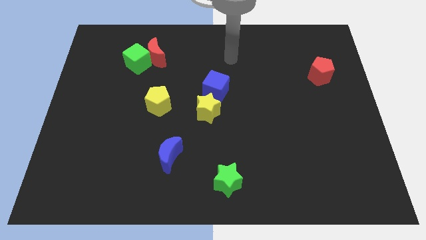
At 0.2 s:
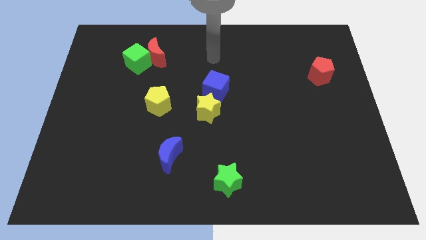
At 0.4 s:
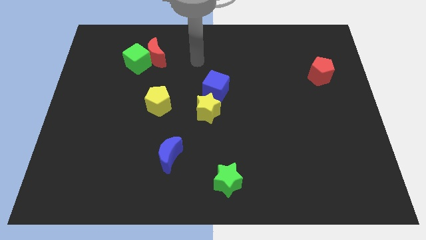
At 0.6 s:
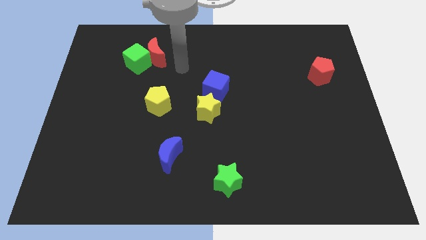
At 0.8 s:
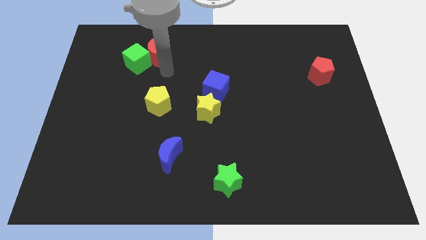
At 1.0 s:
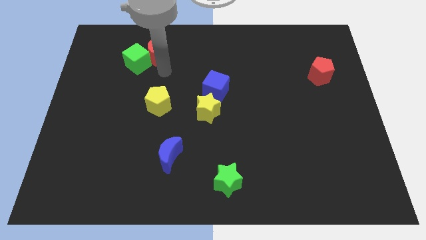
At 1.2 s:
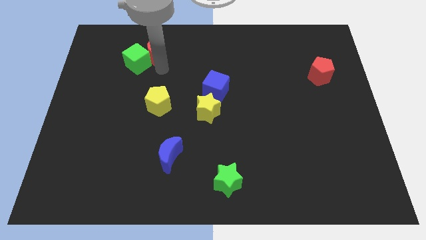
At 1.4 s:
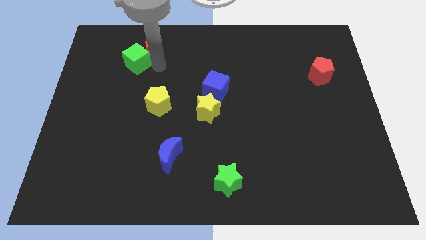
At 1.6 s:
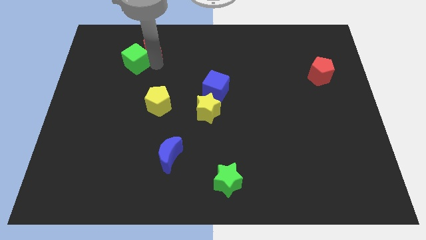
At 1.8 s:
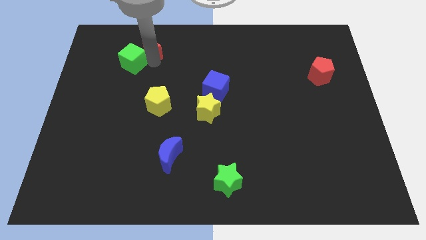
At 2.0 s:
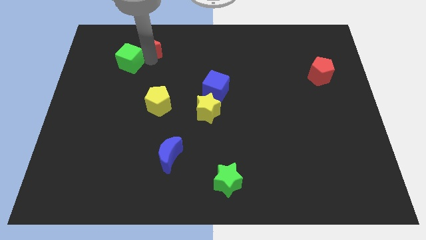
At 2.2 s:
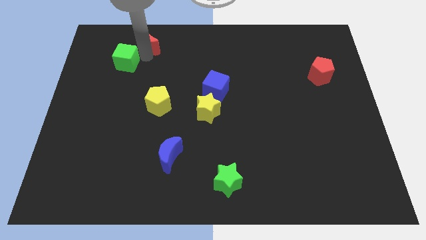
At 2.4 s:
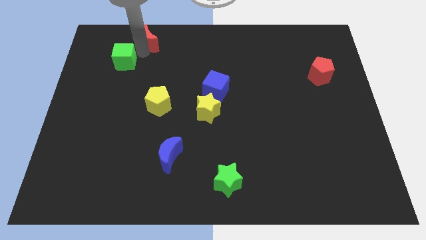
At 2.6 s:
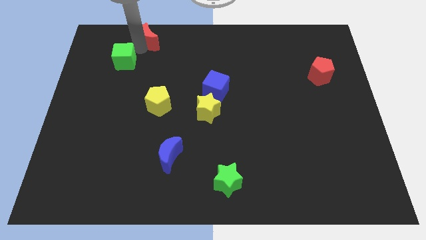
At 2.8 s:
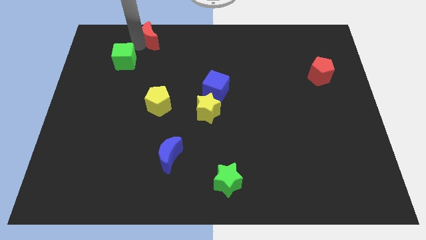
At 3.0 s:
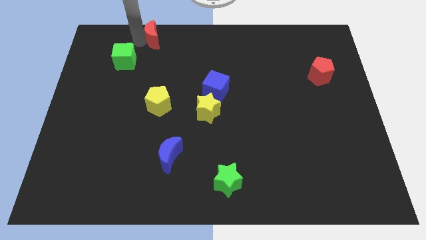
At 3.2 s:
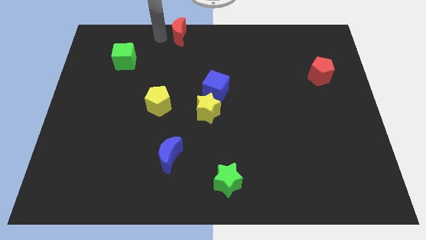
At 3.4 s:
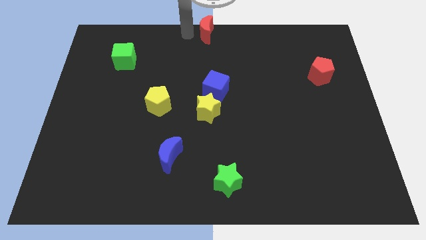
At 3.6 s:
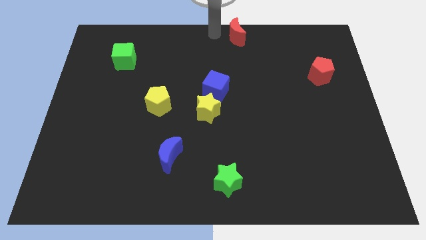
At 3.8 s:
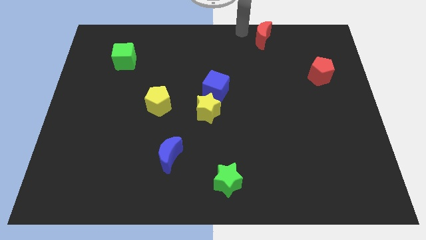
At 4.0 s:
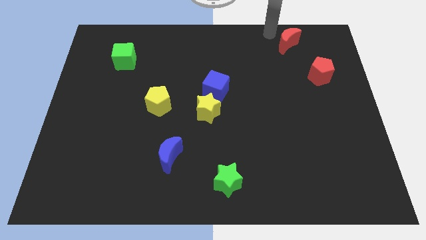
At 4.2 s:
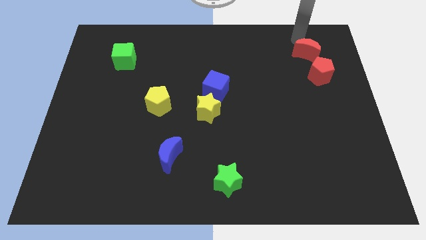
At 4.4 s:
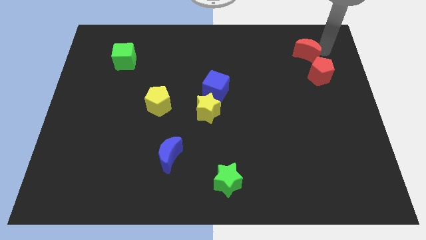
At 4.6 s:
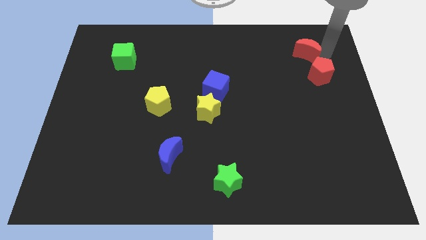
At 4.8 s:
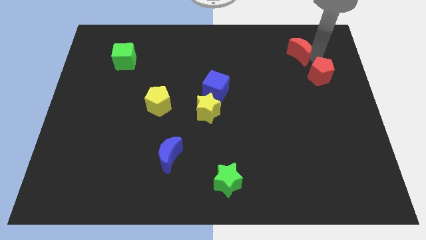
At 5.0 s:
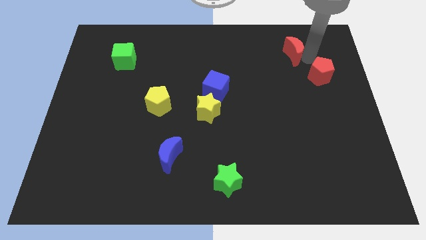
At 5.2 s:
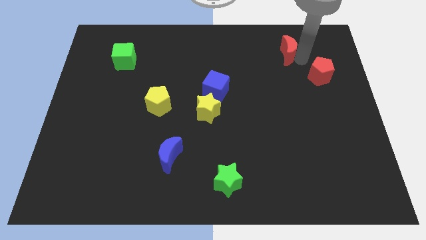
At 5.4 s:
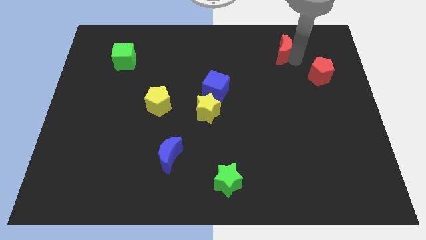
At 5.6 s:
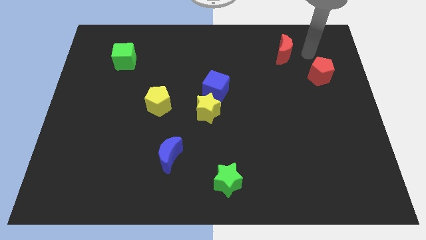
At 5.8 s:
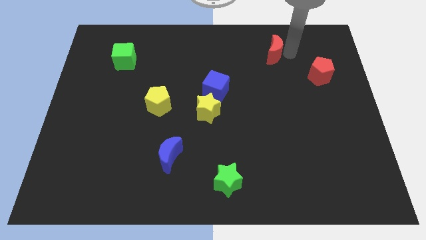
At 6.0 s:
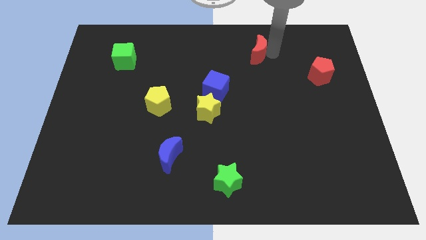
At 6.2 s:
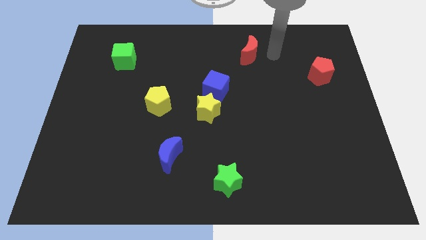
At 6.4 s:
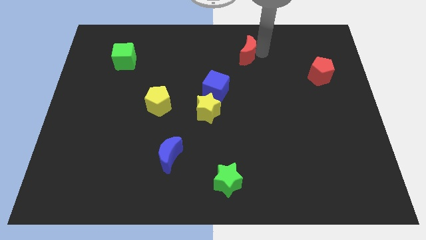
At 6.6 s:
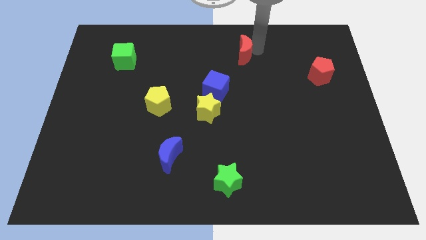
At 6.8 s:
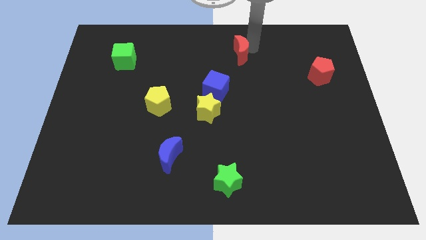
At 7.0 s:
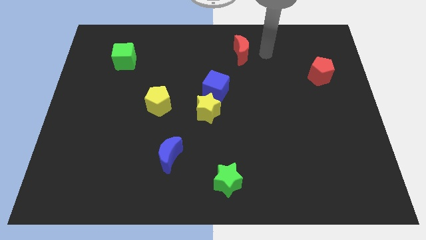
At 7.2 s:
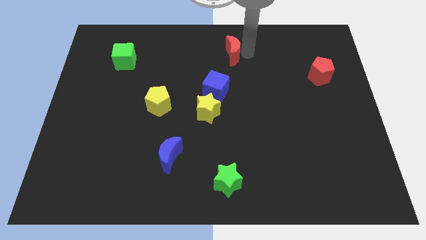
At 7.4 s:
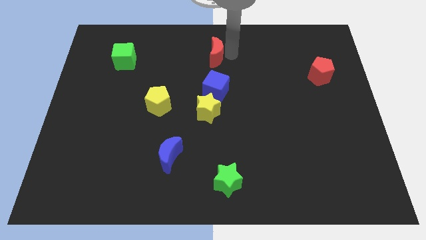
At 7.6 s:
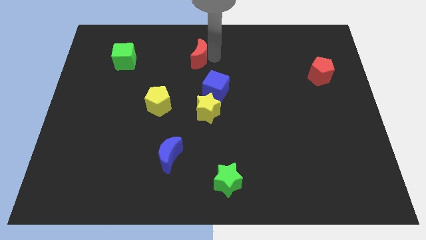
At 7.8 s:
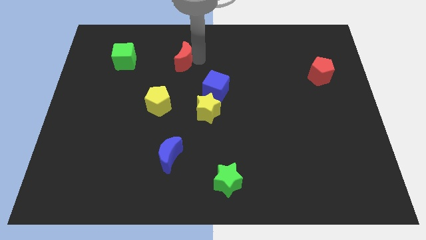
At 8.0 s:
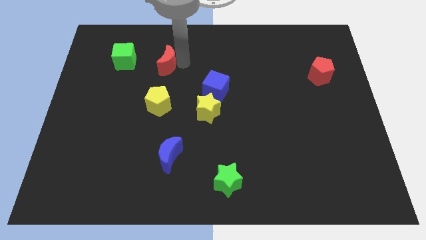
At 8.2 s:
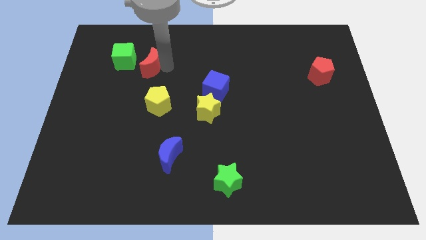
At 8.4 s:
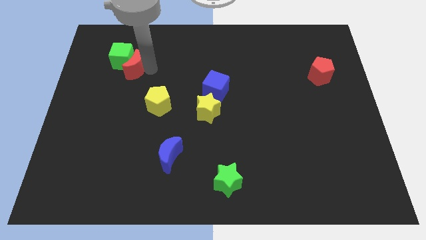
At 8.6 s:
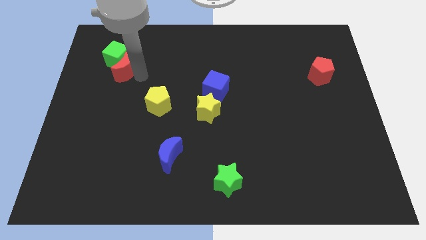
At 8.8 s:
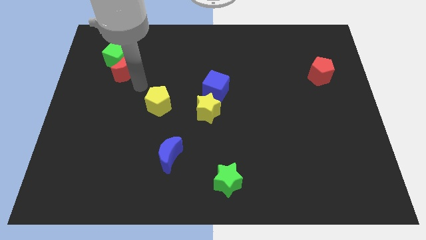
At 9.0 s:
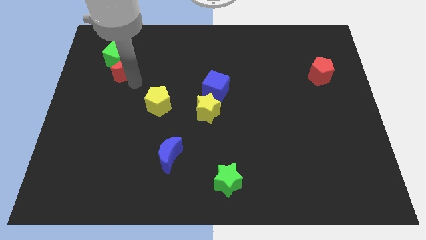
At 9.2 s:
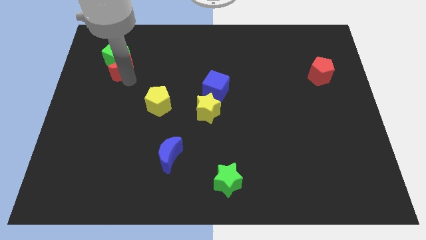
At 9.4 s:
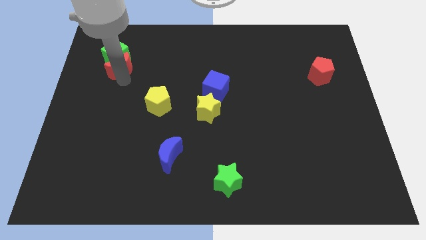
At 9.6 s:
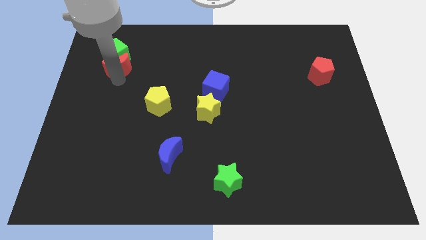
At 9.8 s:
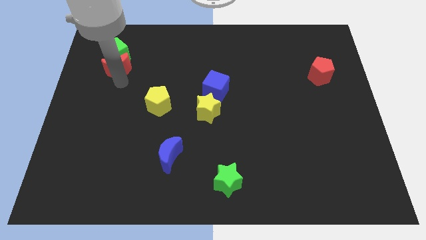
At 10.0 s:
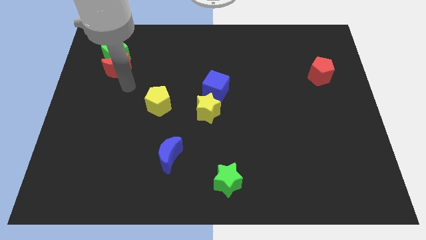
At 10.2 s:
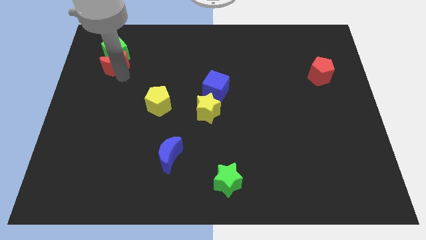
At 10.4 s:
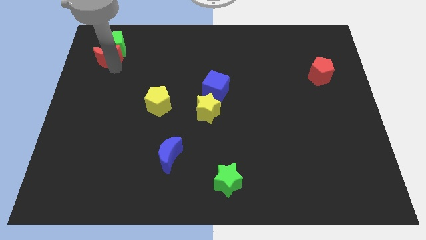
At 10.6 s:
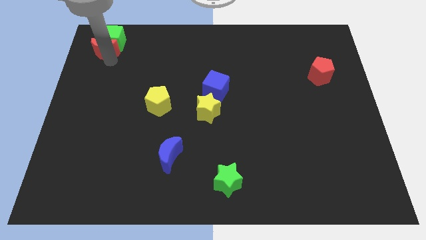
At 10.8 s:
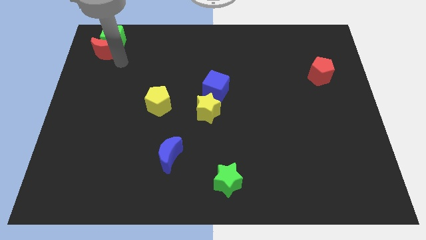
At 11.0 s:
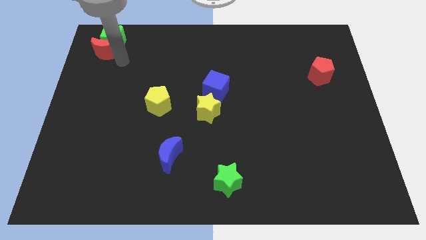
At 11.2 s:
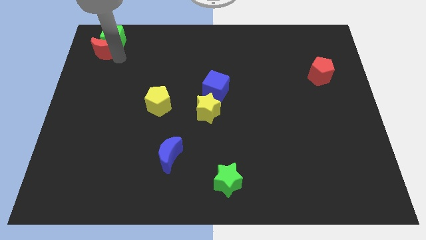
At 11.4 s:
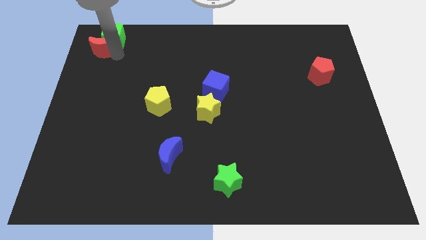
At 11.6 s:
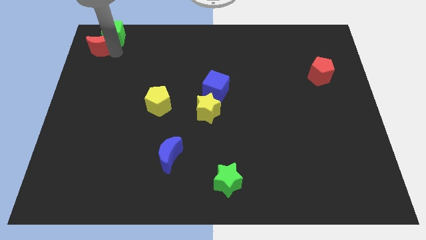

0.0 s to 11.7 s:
push the red moon to the top left corner
